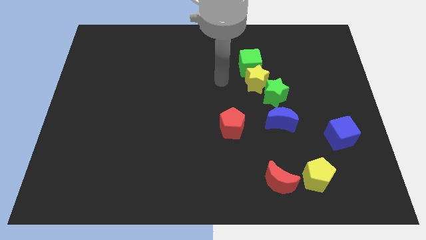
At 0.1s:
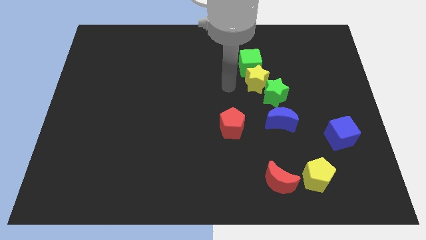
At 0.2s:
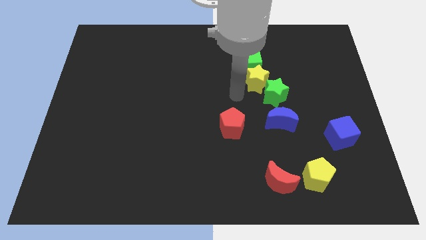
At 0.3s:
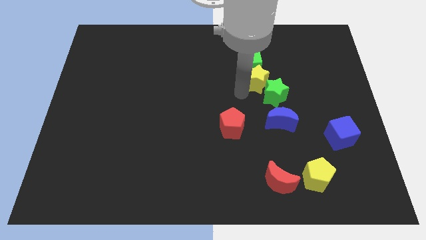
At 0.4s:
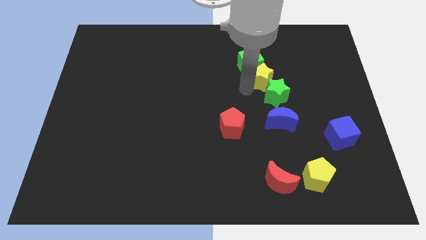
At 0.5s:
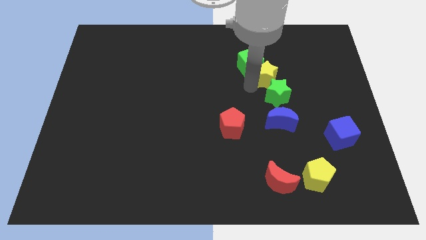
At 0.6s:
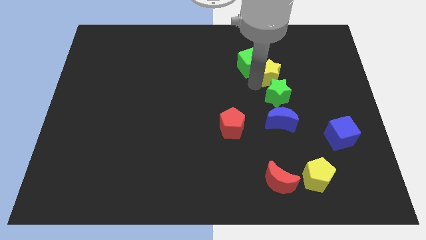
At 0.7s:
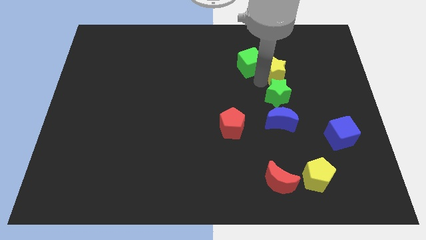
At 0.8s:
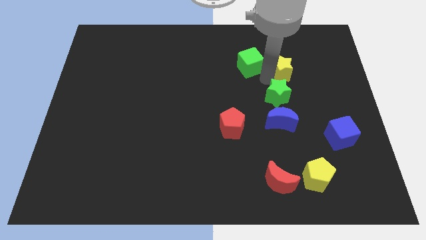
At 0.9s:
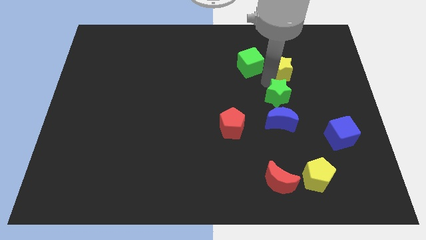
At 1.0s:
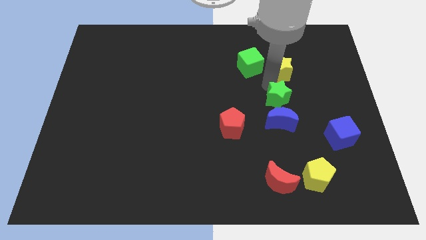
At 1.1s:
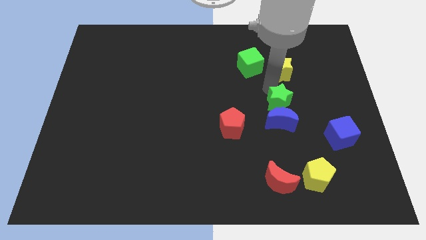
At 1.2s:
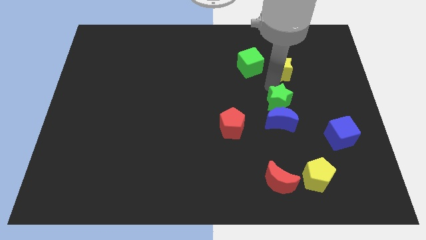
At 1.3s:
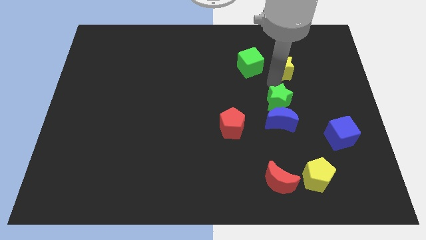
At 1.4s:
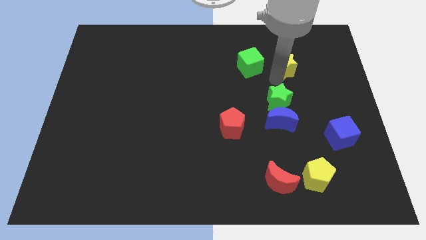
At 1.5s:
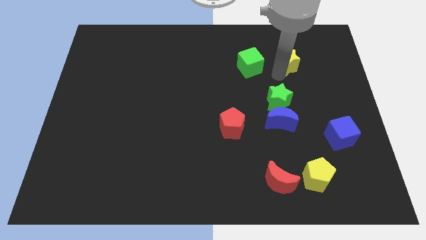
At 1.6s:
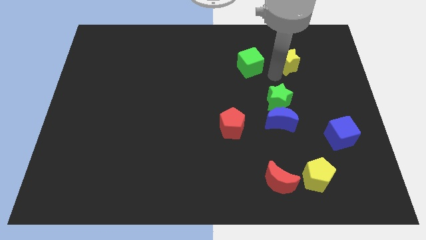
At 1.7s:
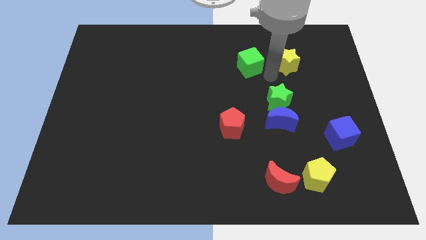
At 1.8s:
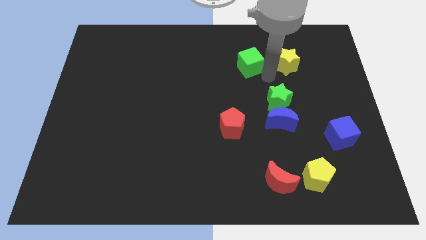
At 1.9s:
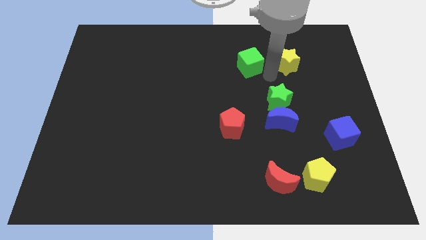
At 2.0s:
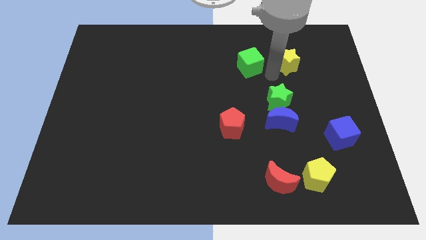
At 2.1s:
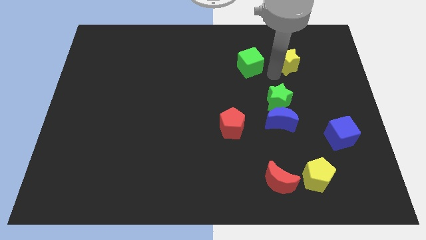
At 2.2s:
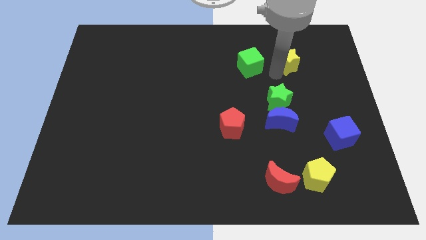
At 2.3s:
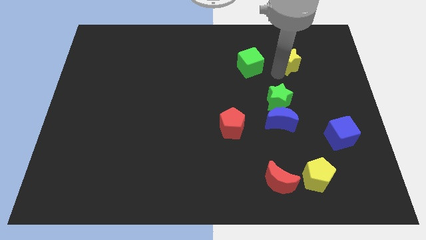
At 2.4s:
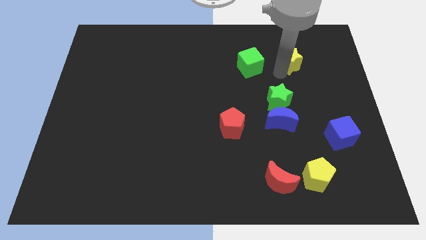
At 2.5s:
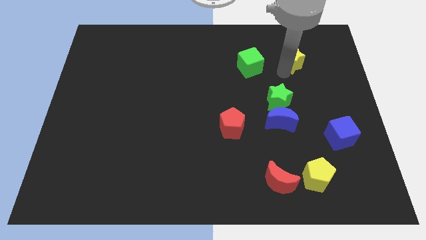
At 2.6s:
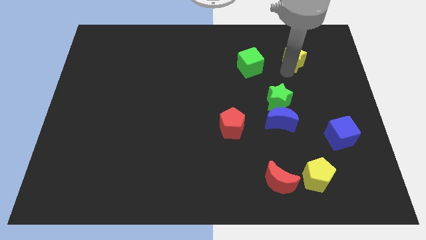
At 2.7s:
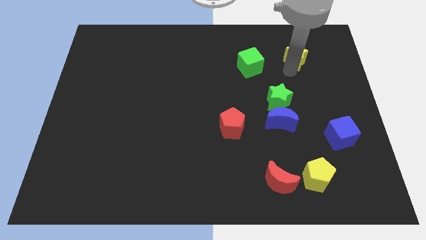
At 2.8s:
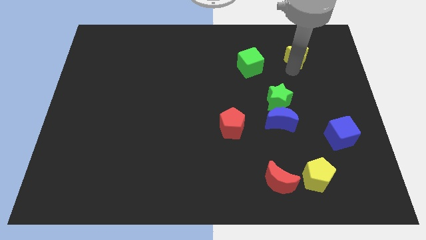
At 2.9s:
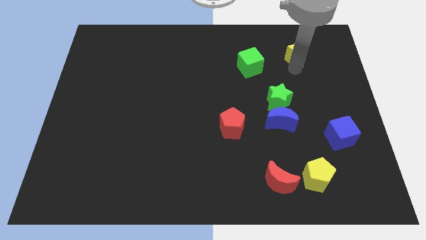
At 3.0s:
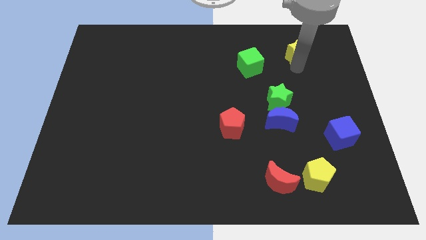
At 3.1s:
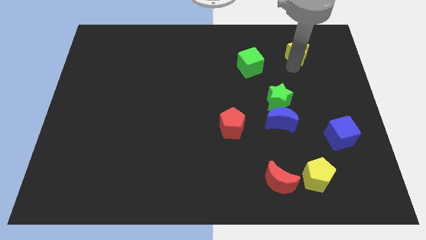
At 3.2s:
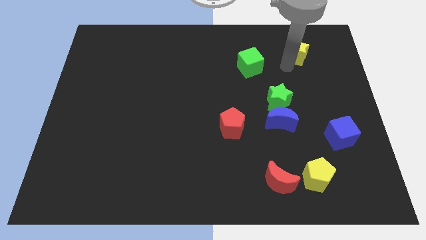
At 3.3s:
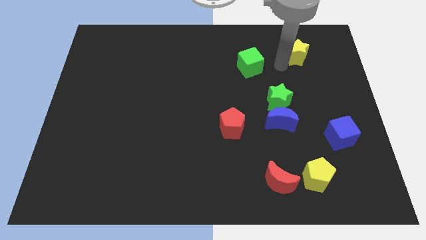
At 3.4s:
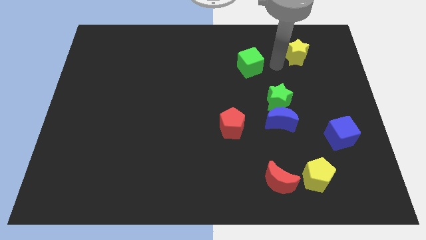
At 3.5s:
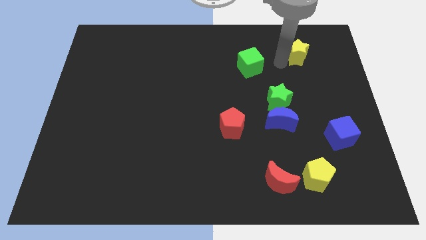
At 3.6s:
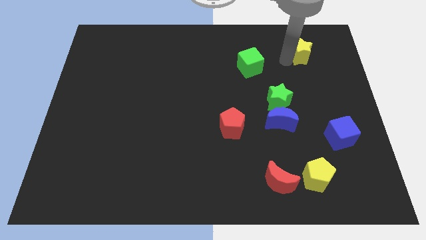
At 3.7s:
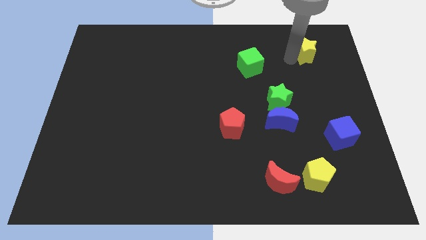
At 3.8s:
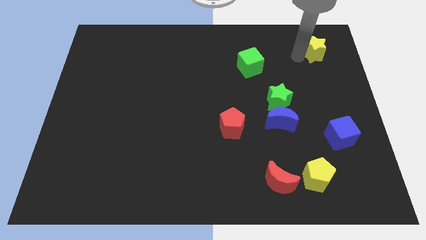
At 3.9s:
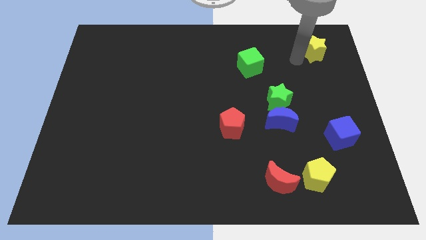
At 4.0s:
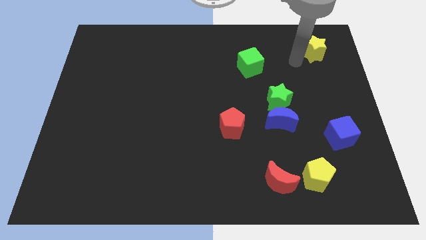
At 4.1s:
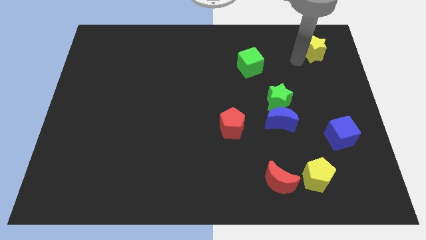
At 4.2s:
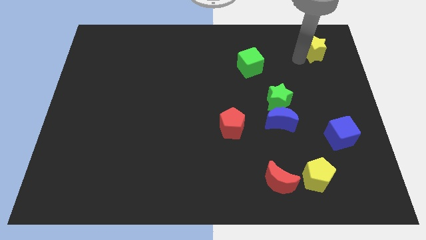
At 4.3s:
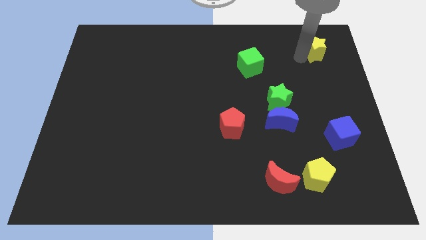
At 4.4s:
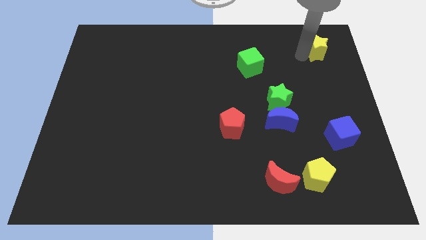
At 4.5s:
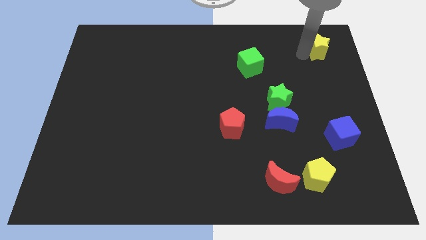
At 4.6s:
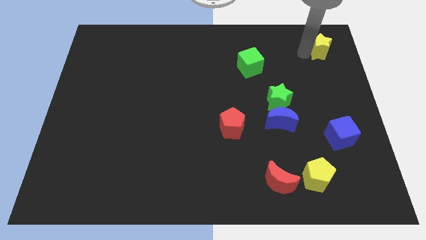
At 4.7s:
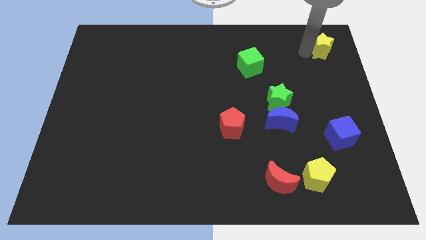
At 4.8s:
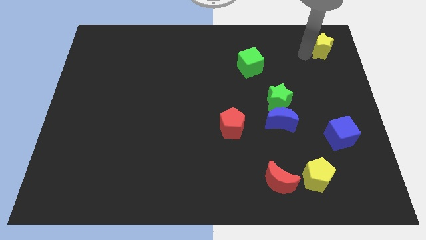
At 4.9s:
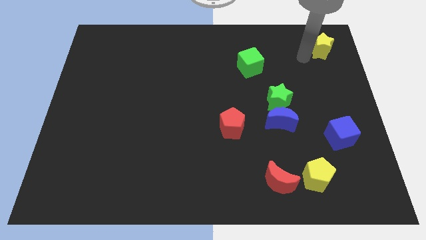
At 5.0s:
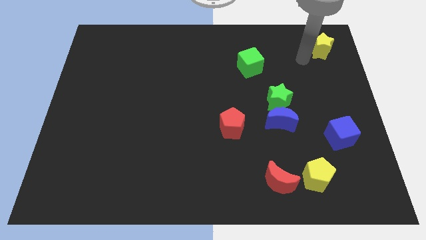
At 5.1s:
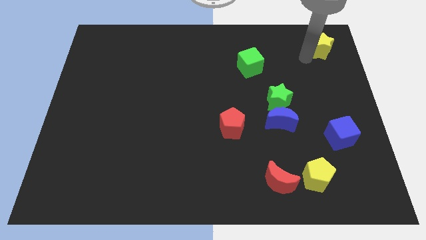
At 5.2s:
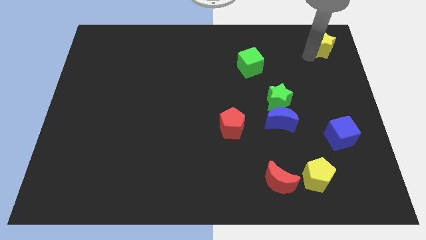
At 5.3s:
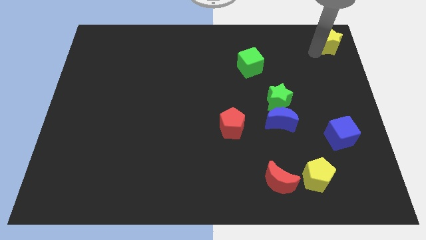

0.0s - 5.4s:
slide the yellow star to the top right of the board

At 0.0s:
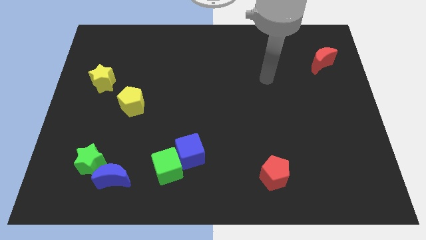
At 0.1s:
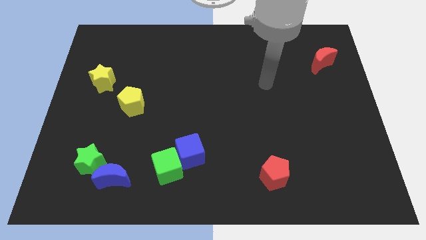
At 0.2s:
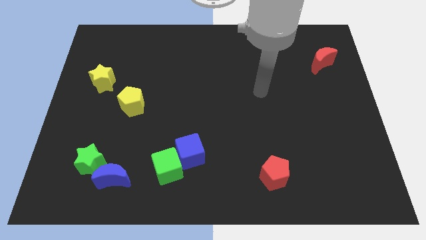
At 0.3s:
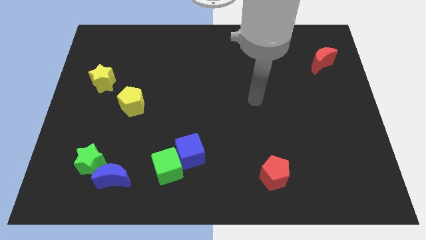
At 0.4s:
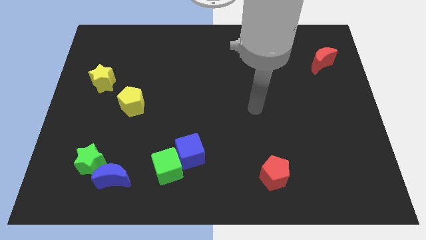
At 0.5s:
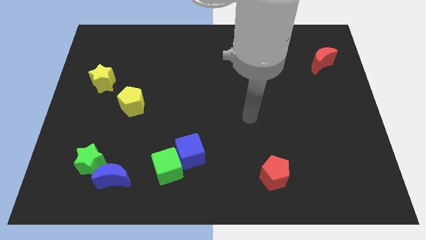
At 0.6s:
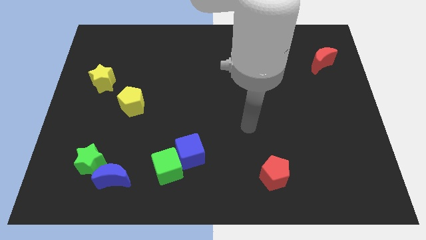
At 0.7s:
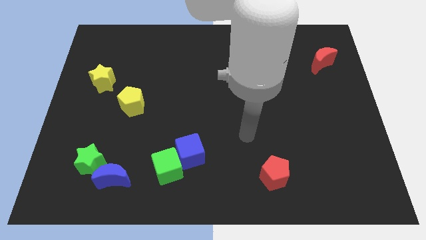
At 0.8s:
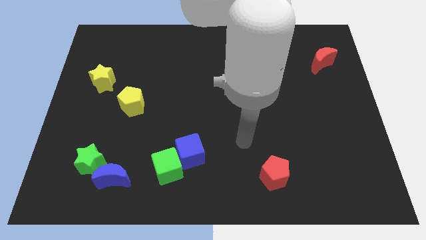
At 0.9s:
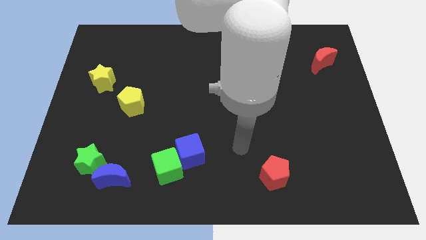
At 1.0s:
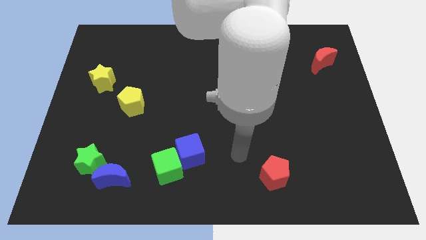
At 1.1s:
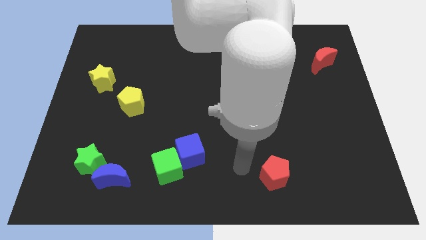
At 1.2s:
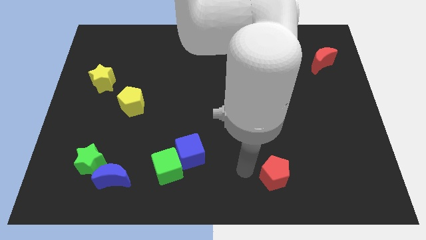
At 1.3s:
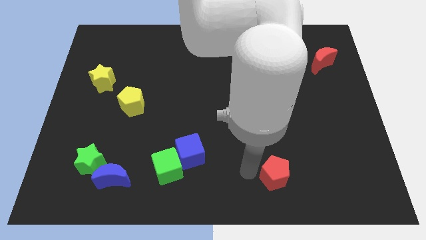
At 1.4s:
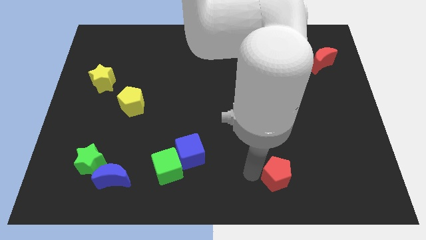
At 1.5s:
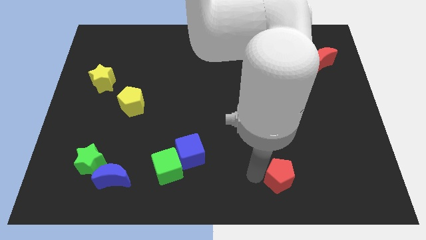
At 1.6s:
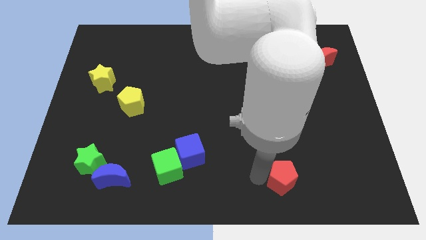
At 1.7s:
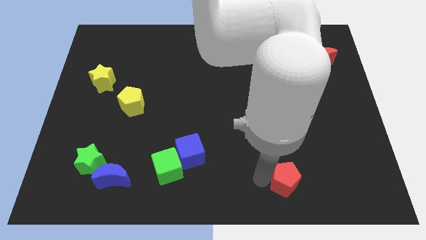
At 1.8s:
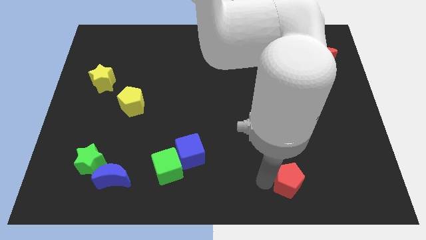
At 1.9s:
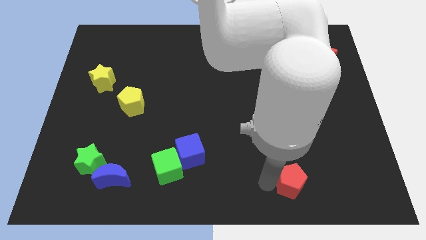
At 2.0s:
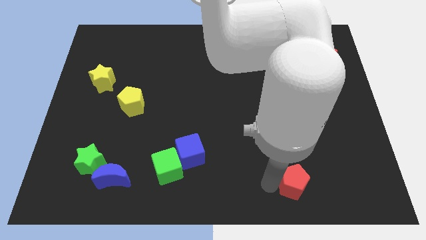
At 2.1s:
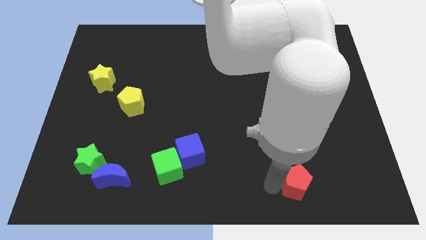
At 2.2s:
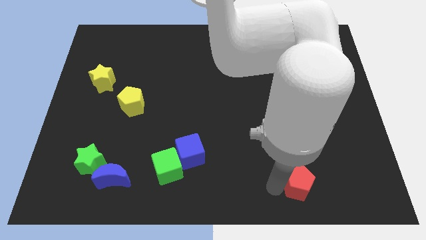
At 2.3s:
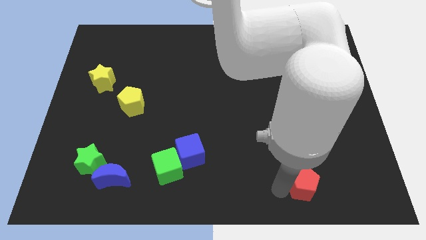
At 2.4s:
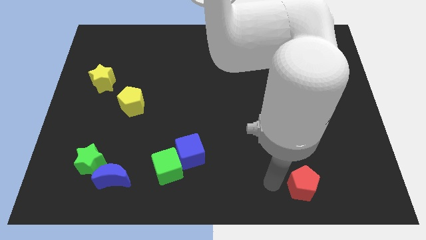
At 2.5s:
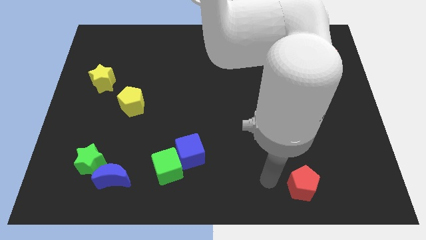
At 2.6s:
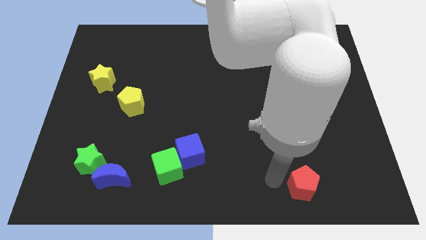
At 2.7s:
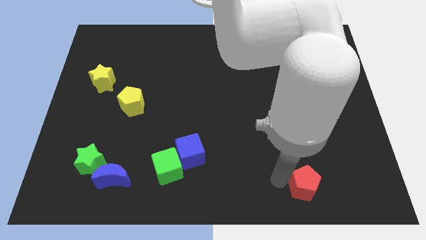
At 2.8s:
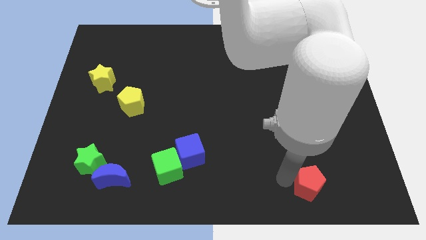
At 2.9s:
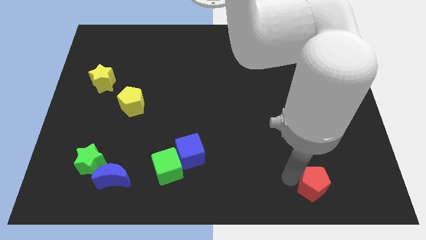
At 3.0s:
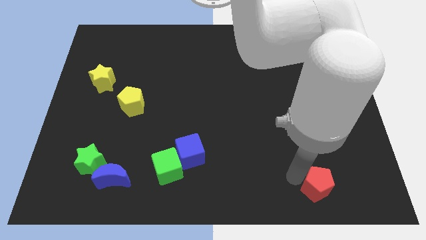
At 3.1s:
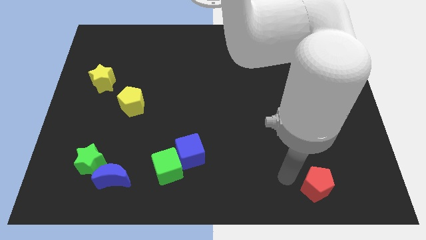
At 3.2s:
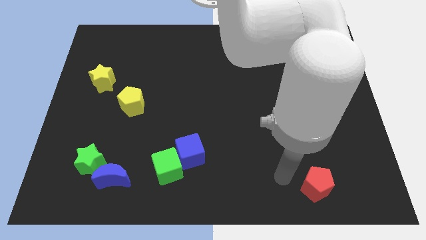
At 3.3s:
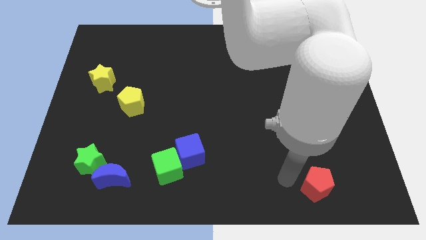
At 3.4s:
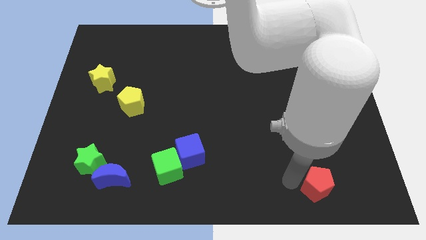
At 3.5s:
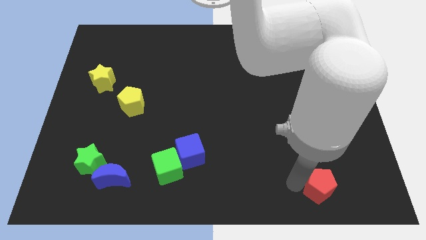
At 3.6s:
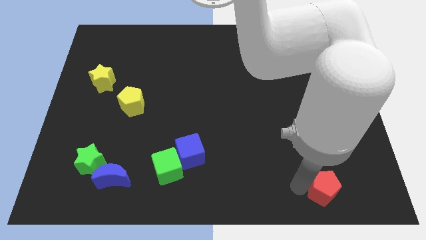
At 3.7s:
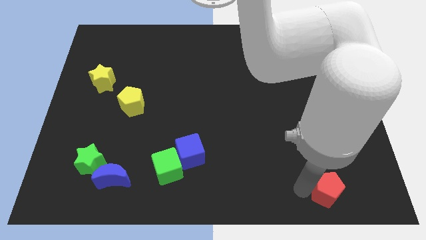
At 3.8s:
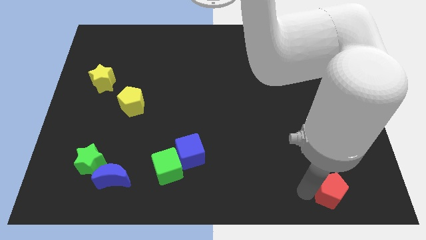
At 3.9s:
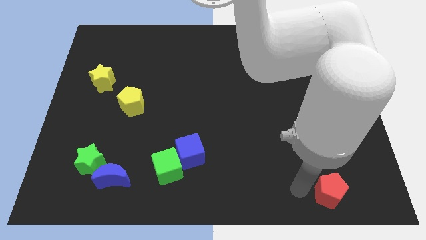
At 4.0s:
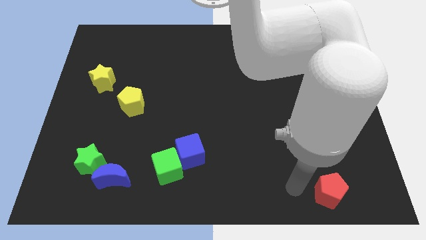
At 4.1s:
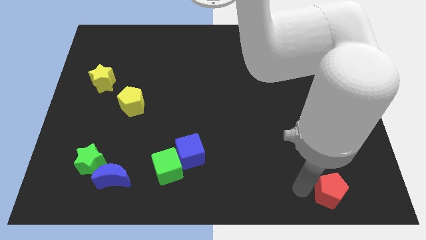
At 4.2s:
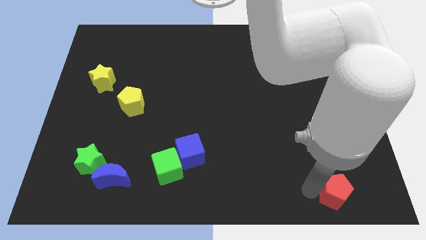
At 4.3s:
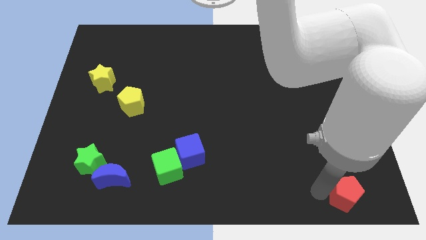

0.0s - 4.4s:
push the red pentagon to the bottom right corner
